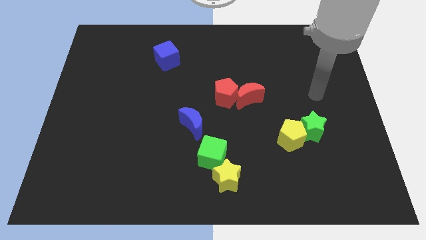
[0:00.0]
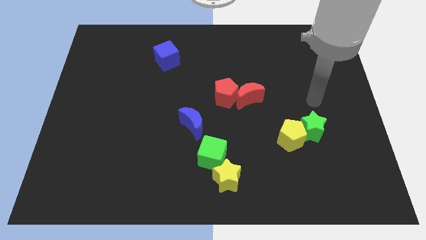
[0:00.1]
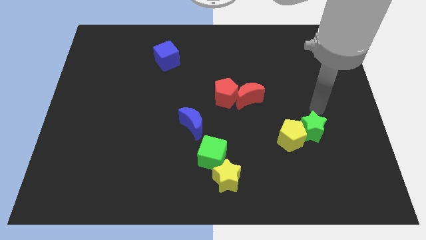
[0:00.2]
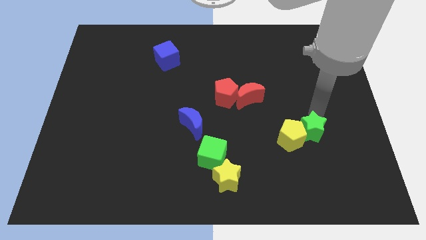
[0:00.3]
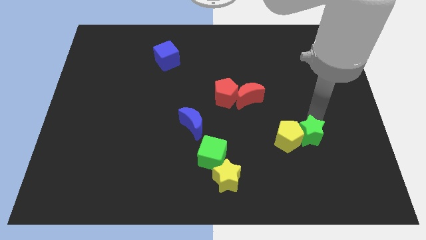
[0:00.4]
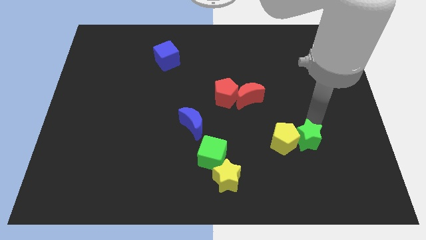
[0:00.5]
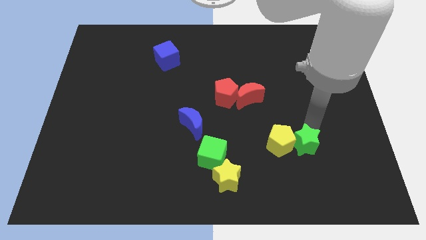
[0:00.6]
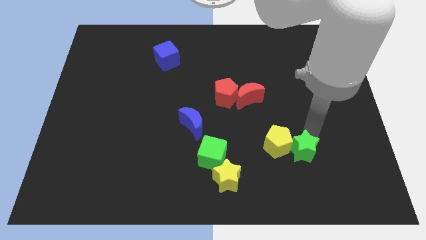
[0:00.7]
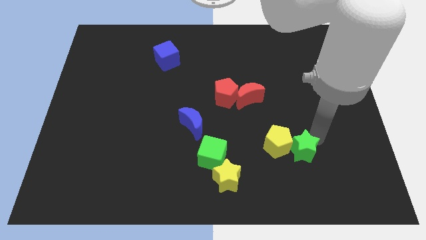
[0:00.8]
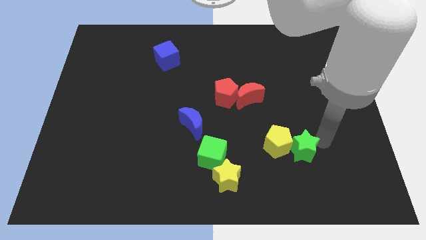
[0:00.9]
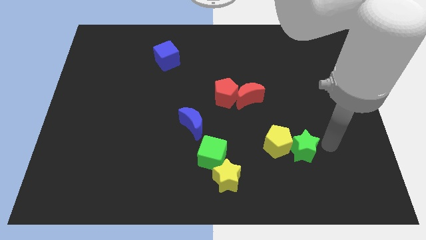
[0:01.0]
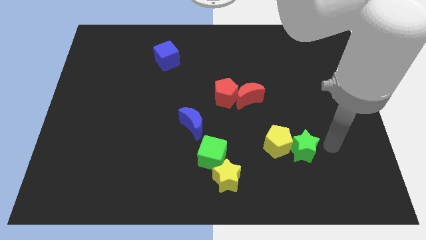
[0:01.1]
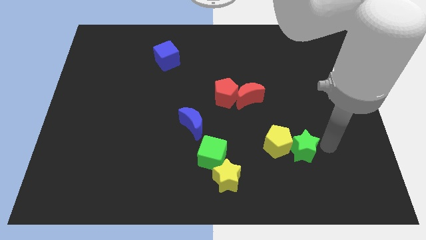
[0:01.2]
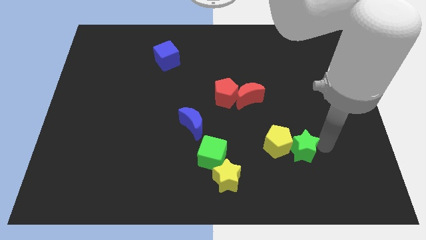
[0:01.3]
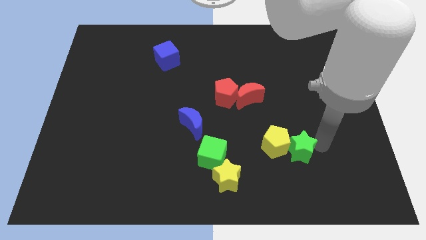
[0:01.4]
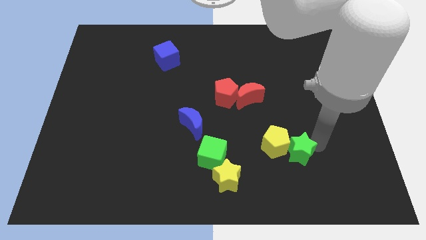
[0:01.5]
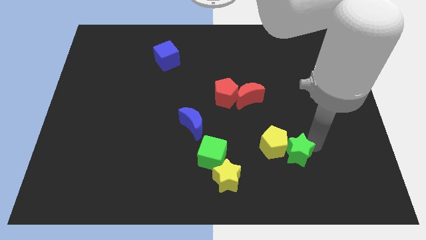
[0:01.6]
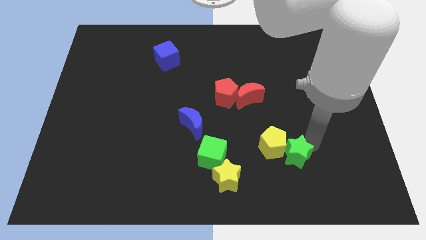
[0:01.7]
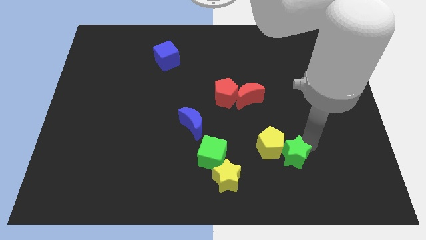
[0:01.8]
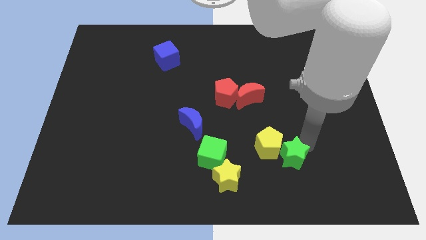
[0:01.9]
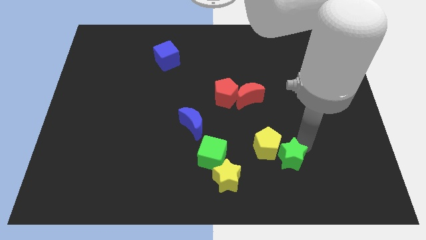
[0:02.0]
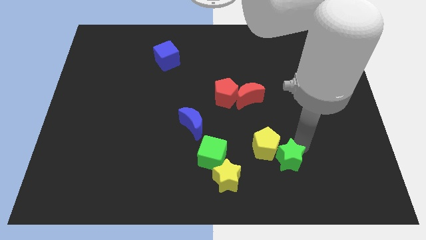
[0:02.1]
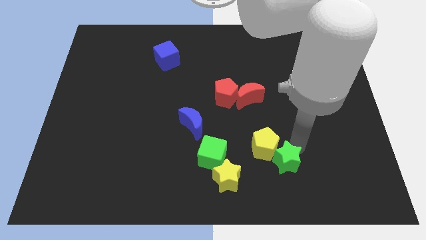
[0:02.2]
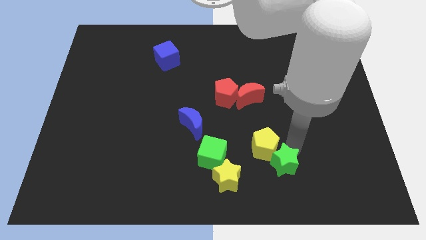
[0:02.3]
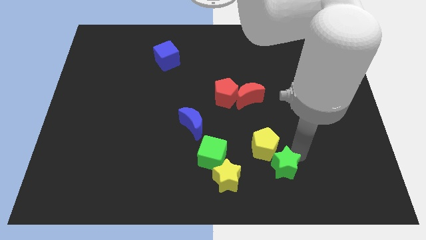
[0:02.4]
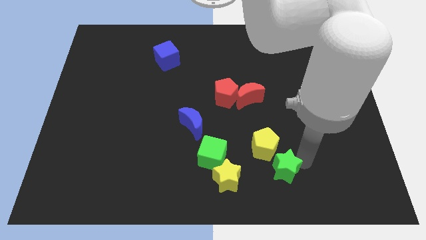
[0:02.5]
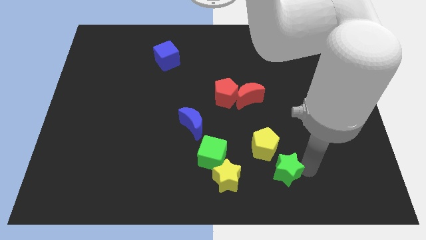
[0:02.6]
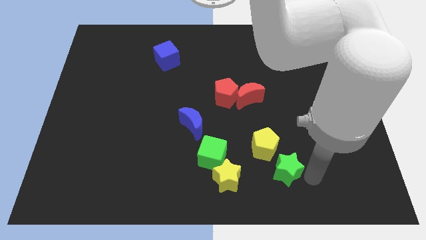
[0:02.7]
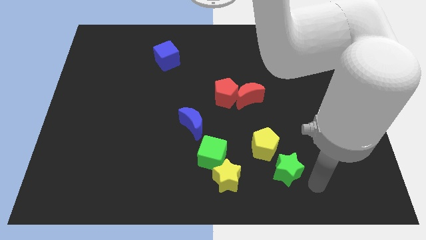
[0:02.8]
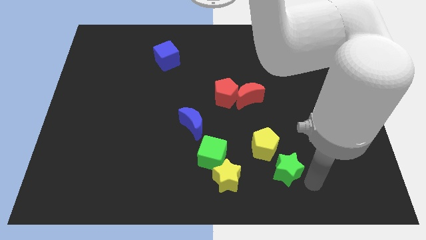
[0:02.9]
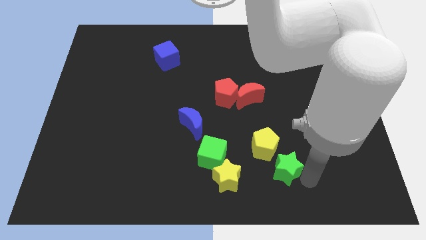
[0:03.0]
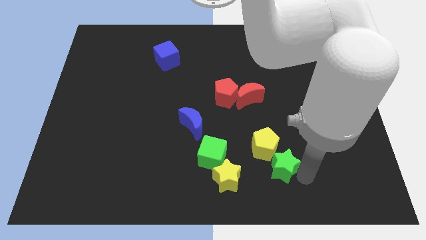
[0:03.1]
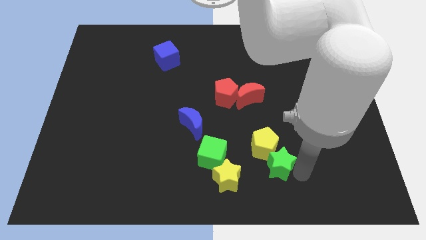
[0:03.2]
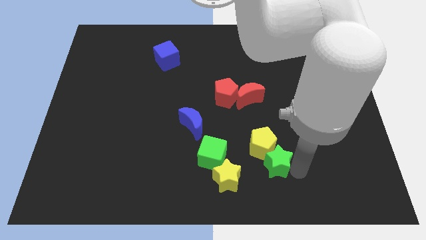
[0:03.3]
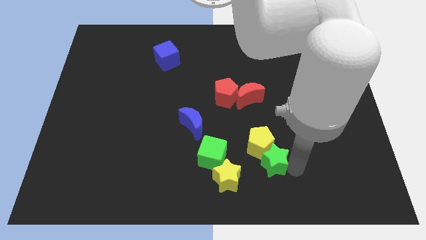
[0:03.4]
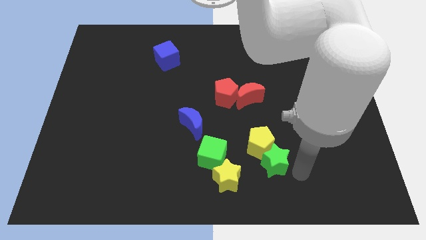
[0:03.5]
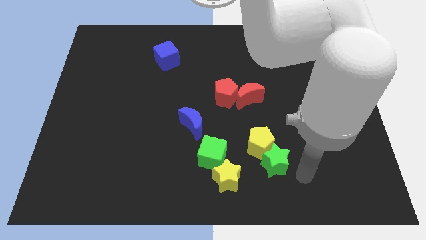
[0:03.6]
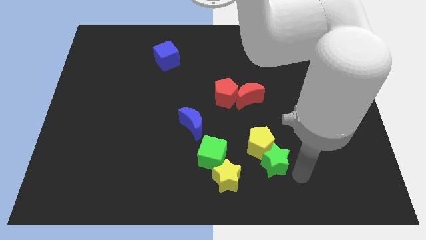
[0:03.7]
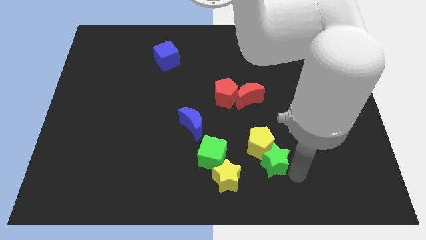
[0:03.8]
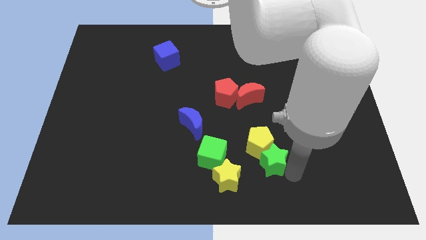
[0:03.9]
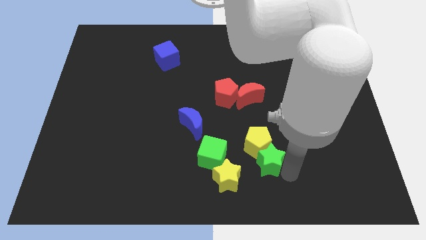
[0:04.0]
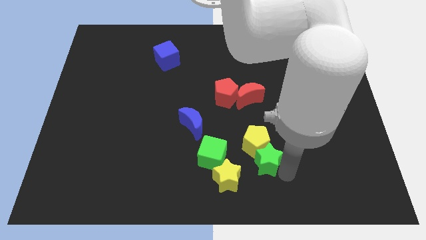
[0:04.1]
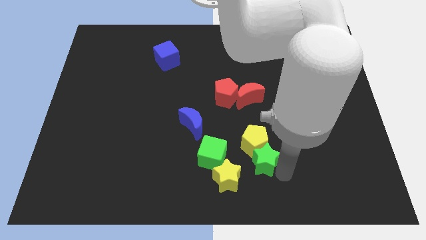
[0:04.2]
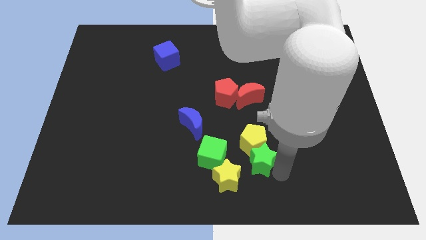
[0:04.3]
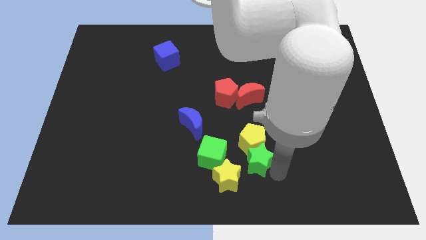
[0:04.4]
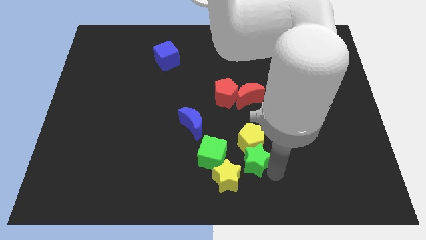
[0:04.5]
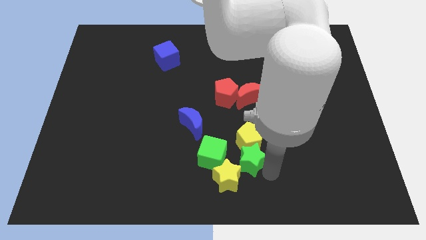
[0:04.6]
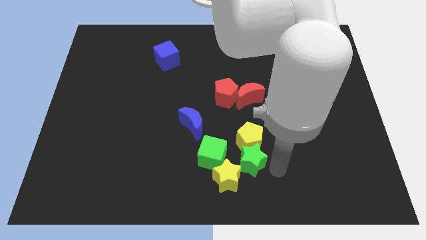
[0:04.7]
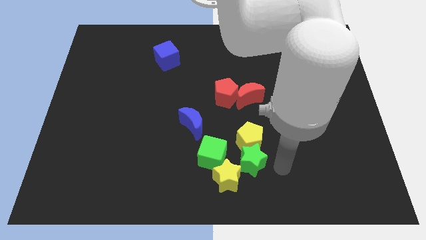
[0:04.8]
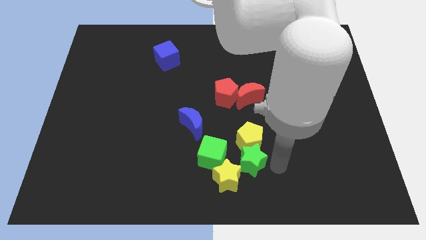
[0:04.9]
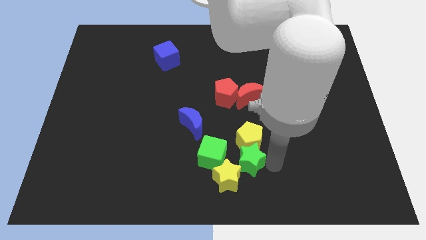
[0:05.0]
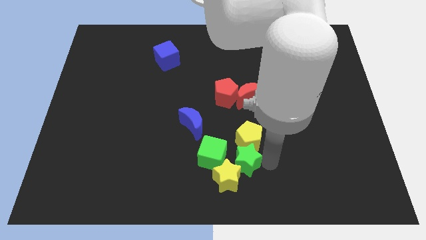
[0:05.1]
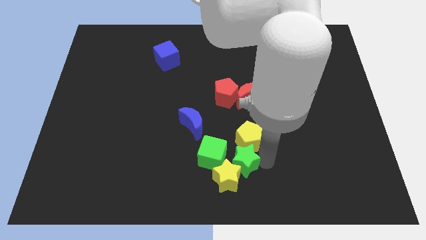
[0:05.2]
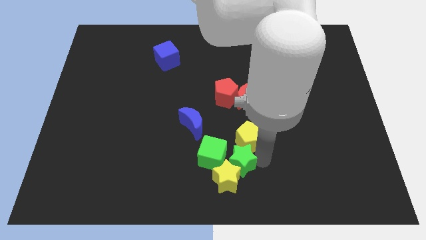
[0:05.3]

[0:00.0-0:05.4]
slide the green star towards the green cube

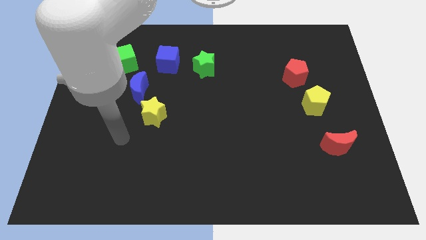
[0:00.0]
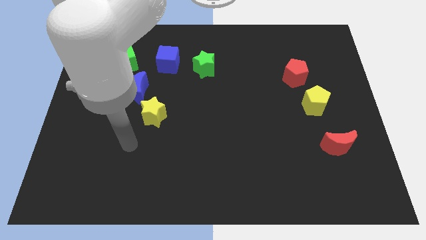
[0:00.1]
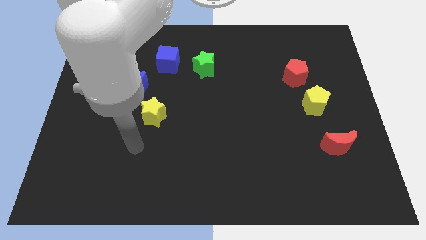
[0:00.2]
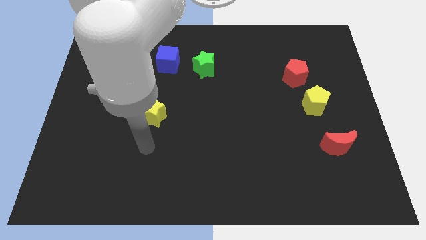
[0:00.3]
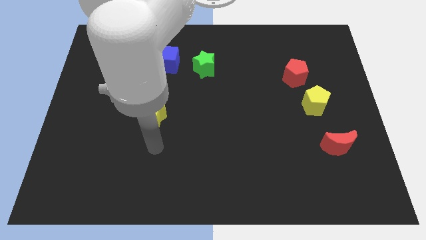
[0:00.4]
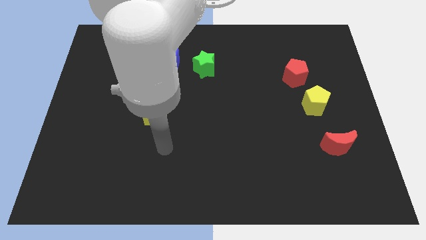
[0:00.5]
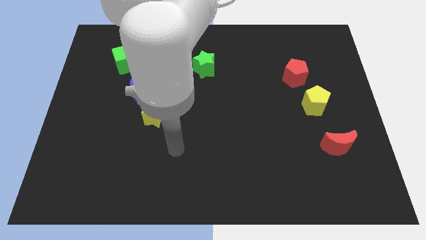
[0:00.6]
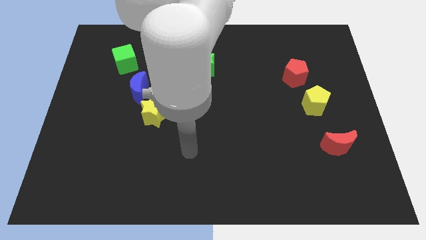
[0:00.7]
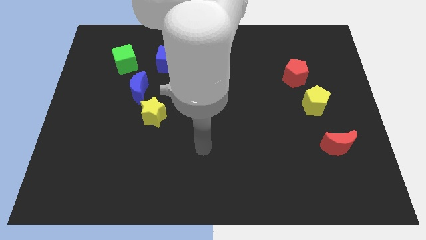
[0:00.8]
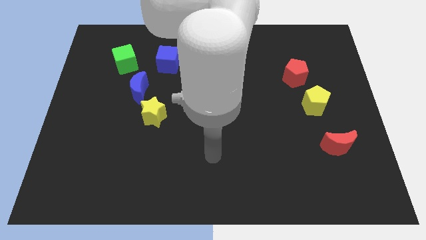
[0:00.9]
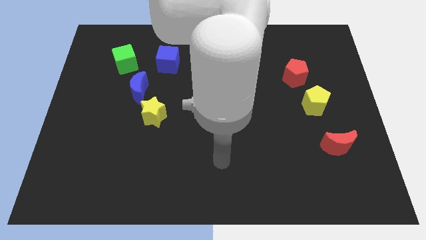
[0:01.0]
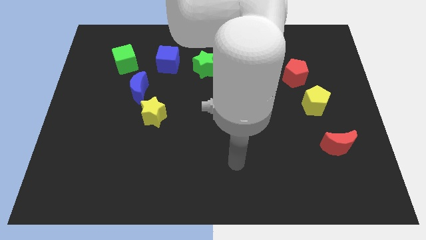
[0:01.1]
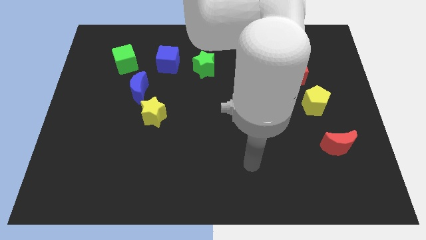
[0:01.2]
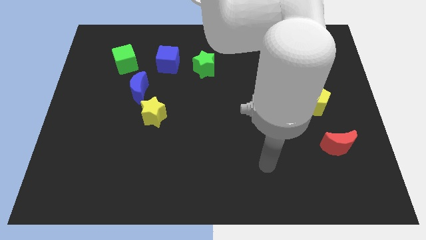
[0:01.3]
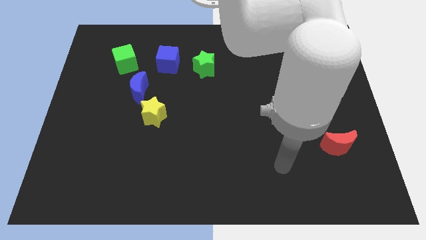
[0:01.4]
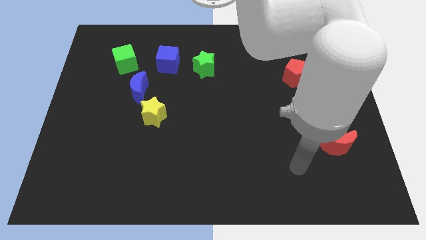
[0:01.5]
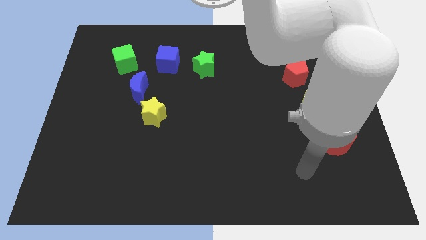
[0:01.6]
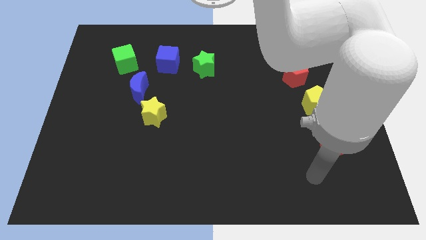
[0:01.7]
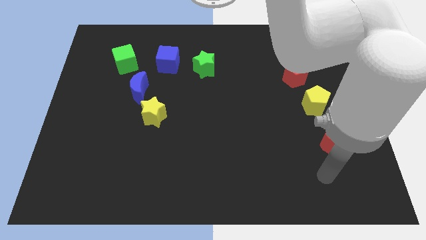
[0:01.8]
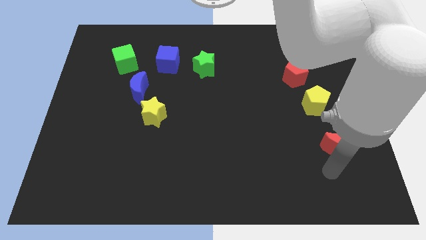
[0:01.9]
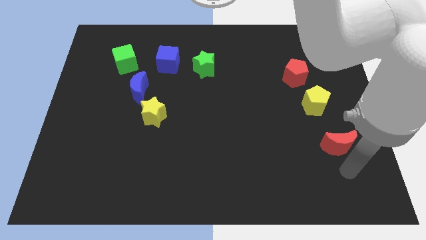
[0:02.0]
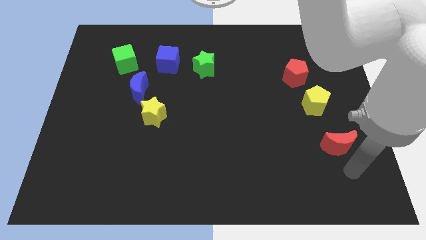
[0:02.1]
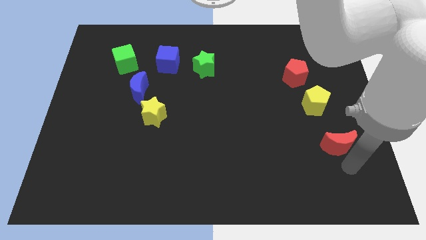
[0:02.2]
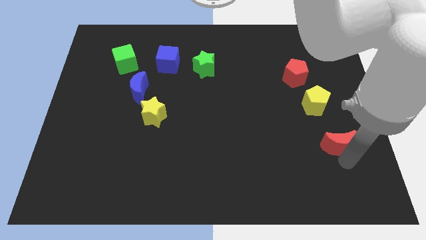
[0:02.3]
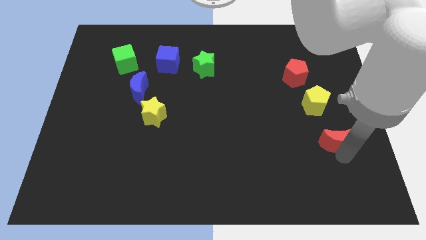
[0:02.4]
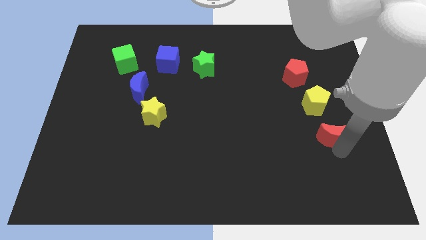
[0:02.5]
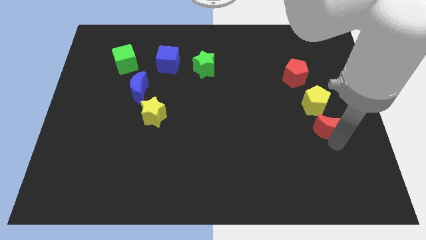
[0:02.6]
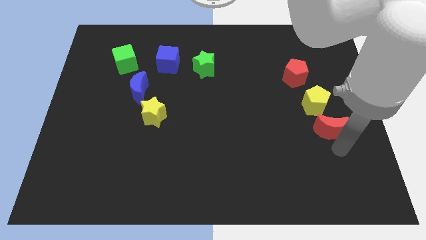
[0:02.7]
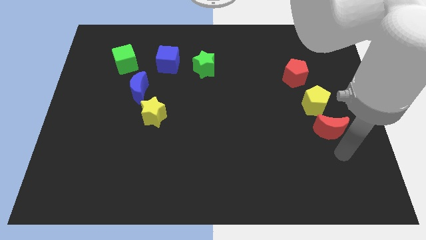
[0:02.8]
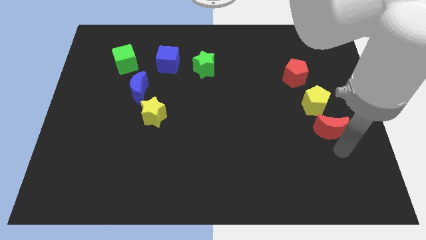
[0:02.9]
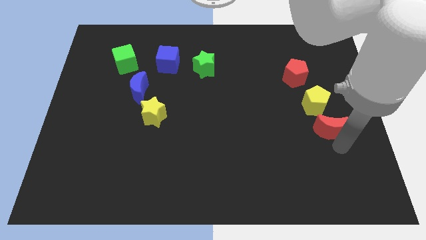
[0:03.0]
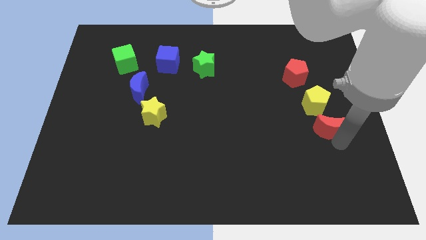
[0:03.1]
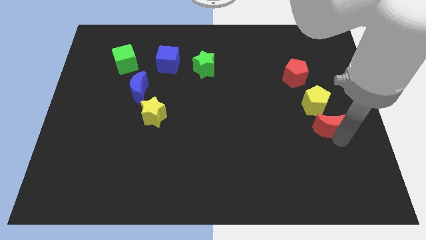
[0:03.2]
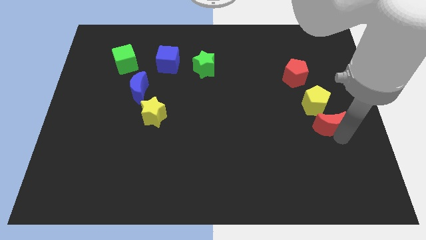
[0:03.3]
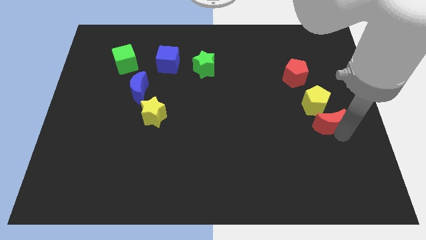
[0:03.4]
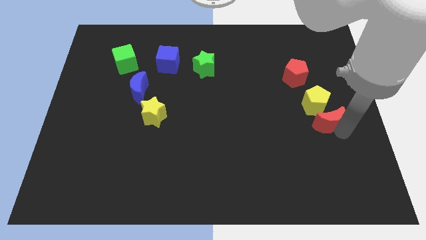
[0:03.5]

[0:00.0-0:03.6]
move the red moon towards the yellow pentagon
